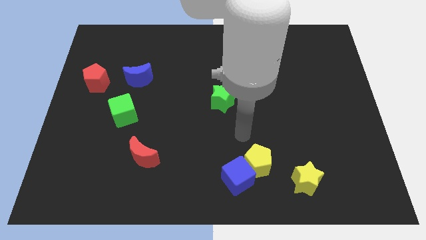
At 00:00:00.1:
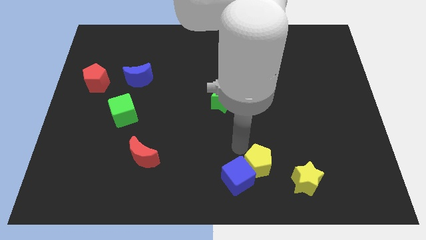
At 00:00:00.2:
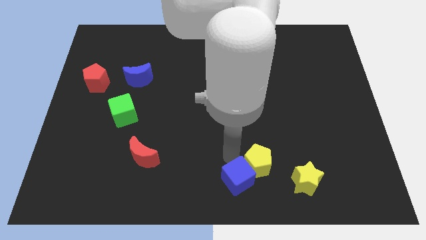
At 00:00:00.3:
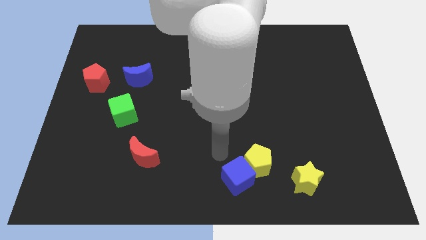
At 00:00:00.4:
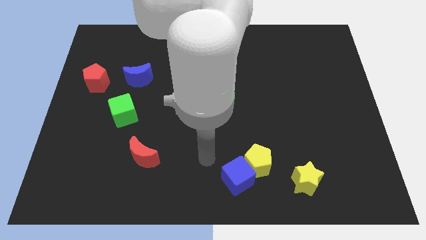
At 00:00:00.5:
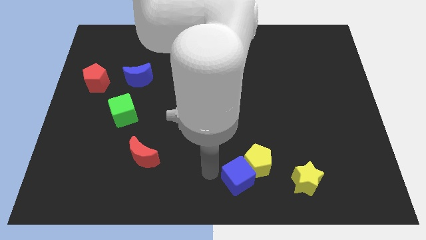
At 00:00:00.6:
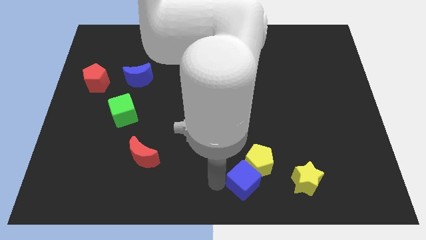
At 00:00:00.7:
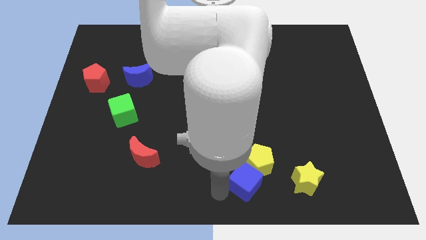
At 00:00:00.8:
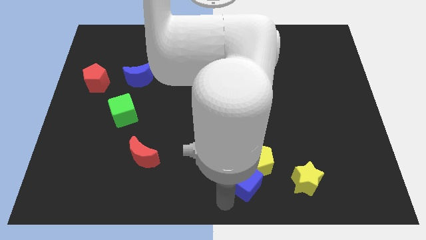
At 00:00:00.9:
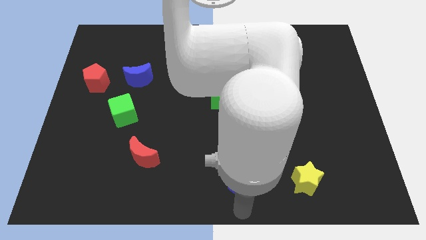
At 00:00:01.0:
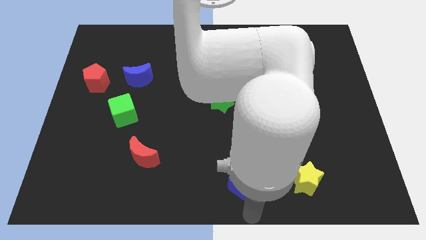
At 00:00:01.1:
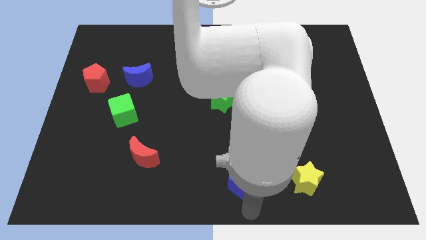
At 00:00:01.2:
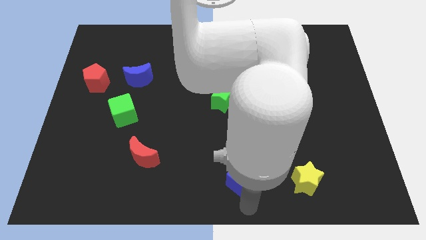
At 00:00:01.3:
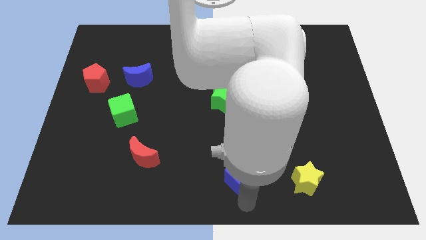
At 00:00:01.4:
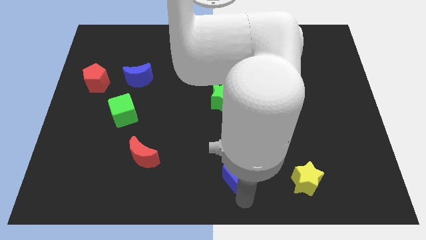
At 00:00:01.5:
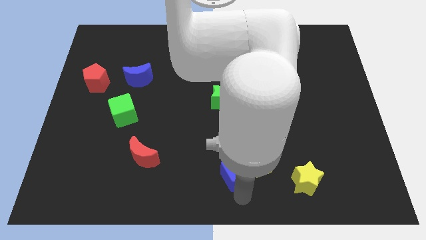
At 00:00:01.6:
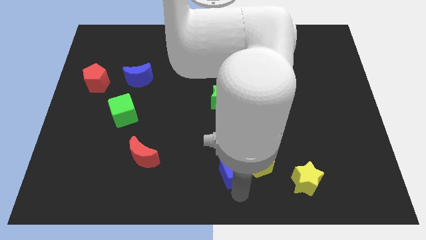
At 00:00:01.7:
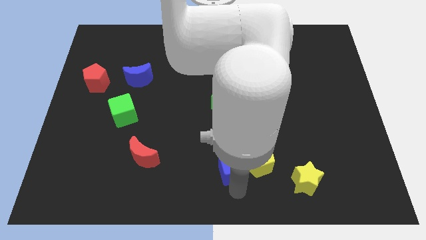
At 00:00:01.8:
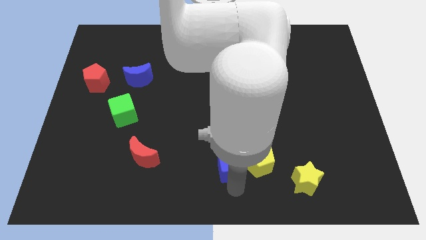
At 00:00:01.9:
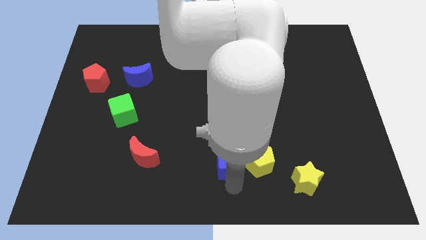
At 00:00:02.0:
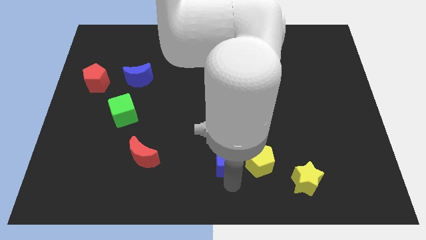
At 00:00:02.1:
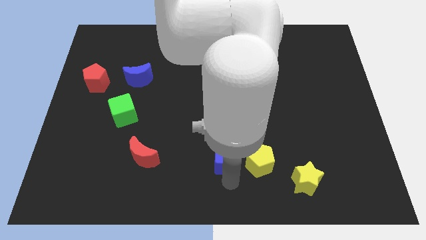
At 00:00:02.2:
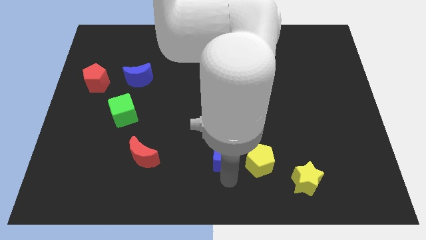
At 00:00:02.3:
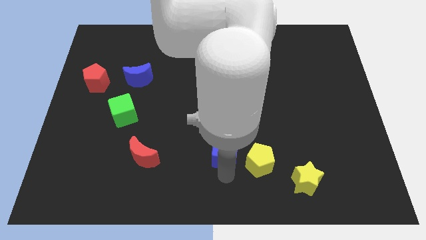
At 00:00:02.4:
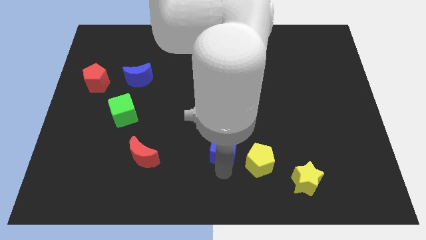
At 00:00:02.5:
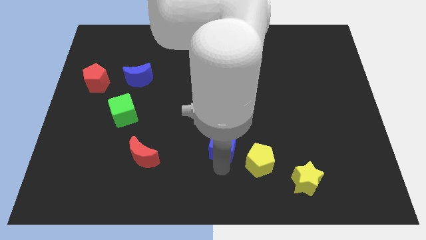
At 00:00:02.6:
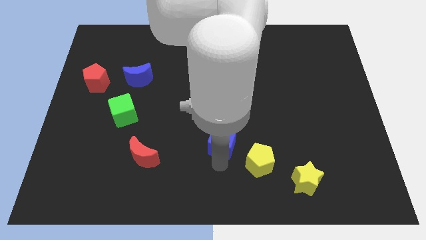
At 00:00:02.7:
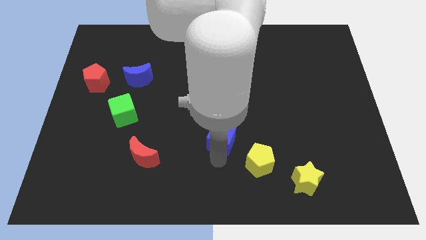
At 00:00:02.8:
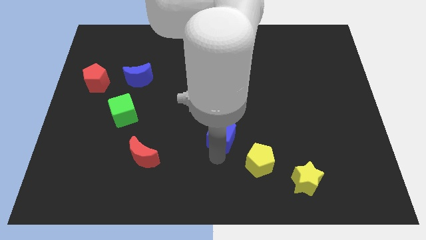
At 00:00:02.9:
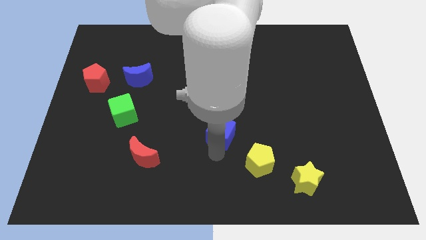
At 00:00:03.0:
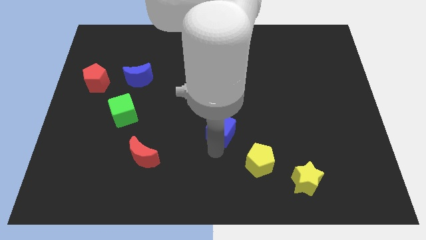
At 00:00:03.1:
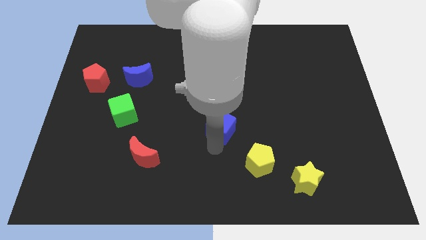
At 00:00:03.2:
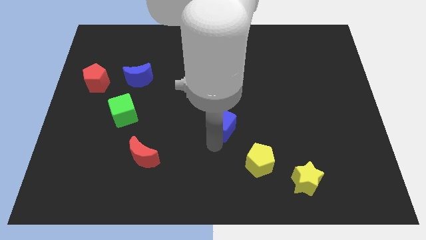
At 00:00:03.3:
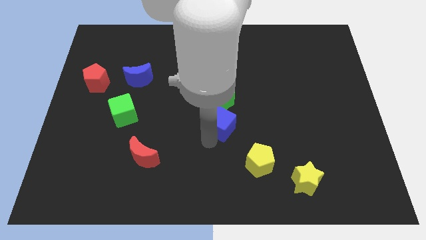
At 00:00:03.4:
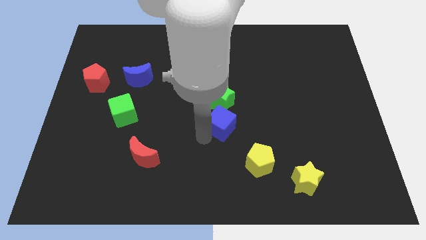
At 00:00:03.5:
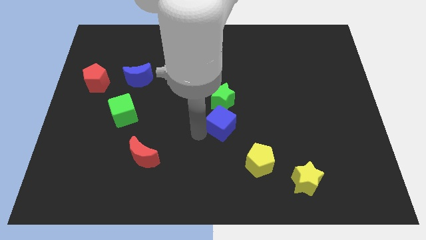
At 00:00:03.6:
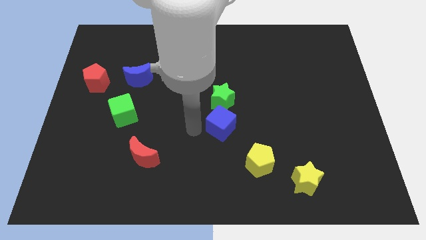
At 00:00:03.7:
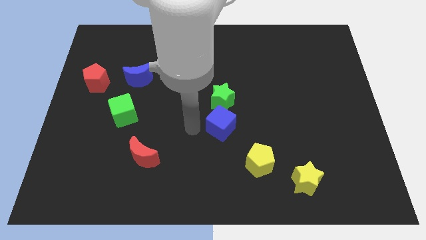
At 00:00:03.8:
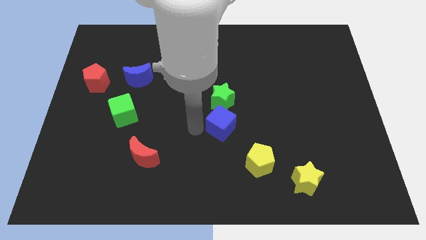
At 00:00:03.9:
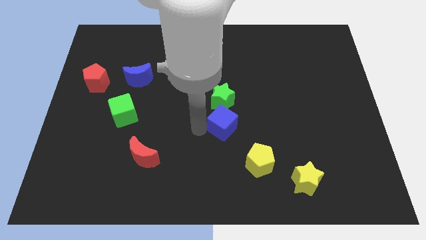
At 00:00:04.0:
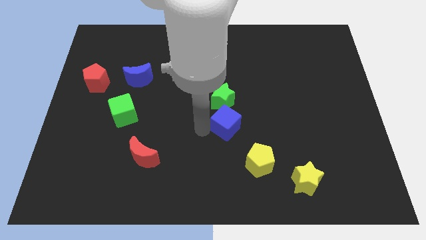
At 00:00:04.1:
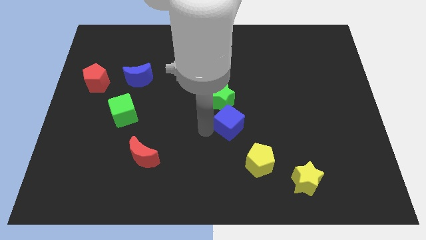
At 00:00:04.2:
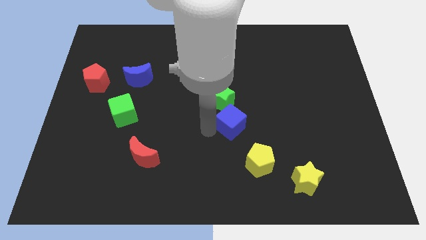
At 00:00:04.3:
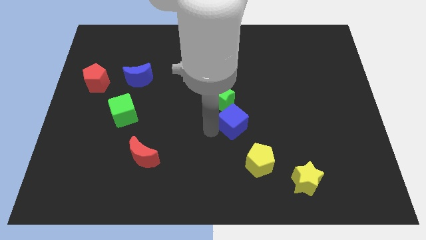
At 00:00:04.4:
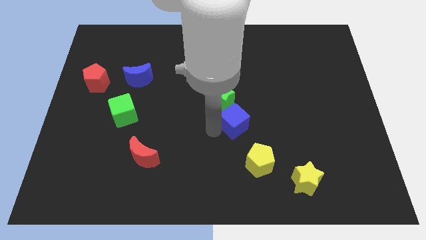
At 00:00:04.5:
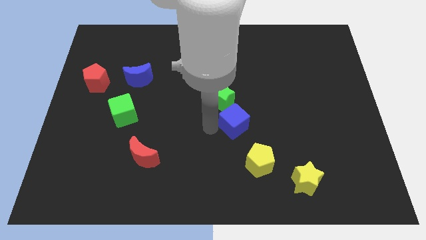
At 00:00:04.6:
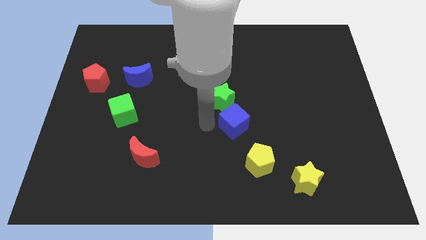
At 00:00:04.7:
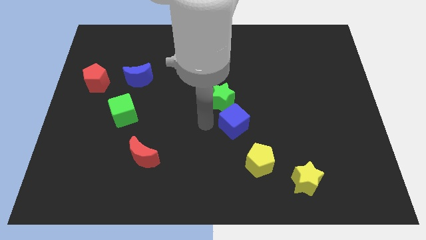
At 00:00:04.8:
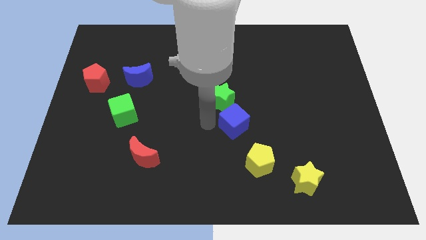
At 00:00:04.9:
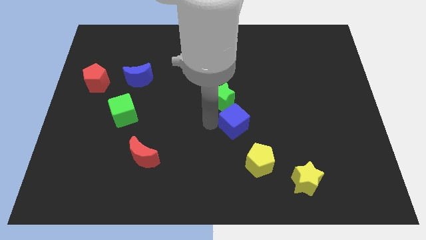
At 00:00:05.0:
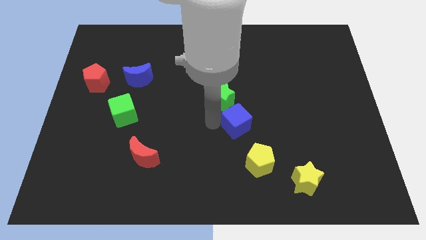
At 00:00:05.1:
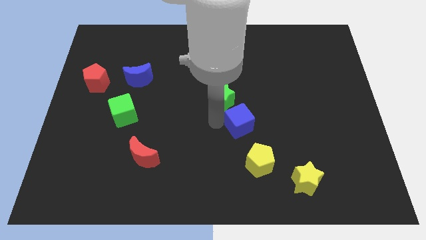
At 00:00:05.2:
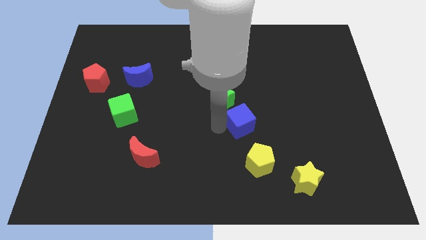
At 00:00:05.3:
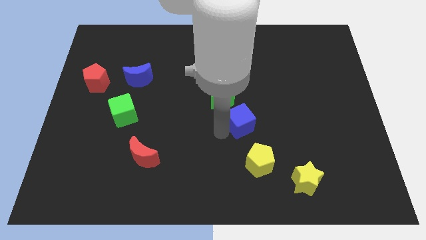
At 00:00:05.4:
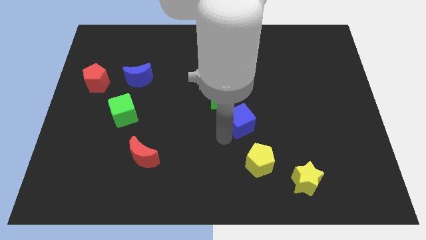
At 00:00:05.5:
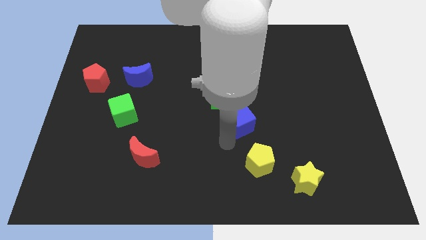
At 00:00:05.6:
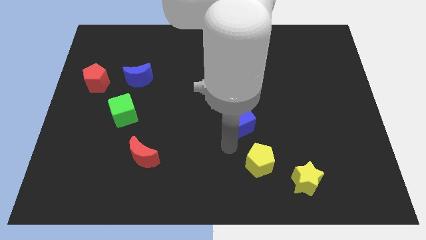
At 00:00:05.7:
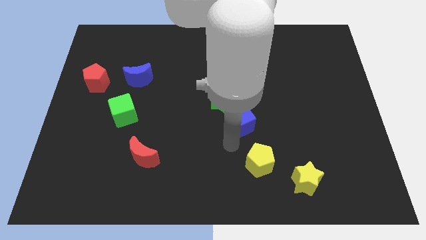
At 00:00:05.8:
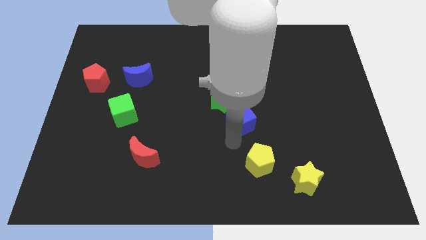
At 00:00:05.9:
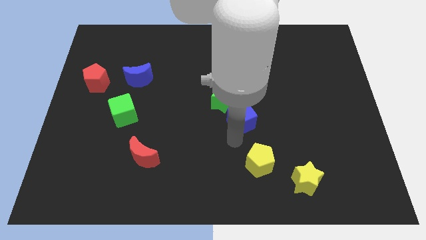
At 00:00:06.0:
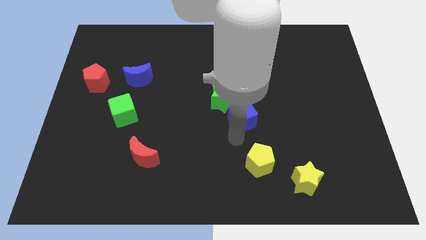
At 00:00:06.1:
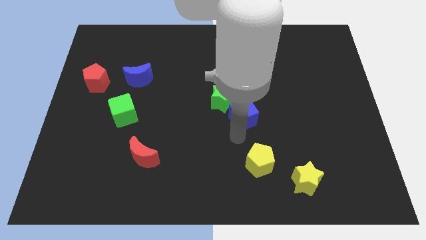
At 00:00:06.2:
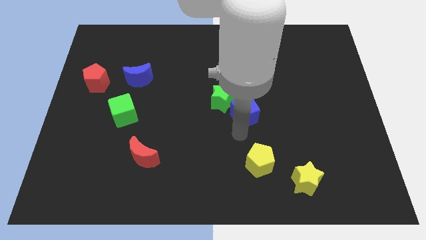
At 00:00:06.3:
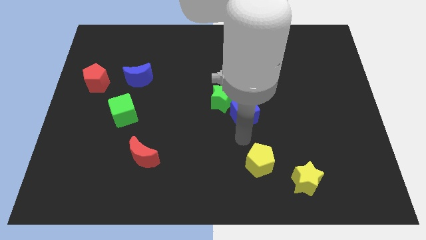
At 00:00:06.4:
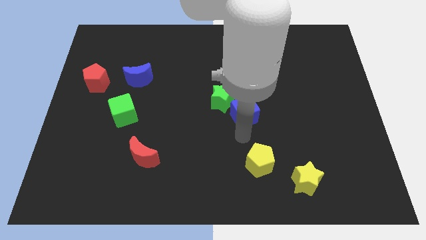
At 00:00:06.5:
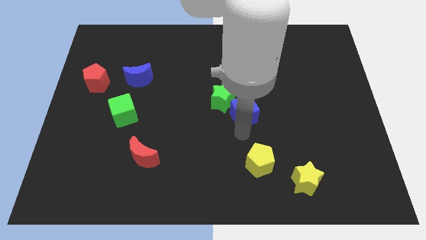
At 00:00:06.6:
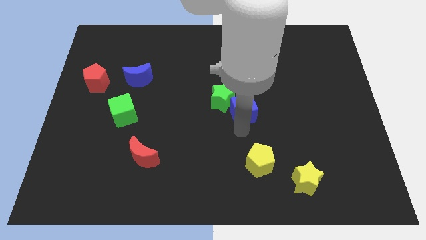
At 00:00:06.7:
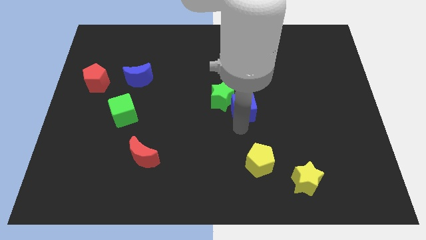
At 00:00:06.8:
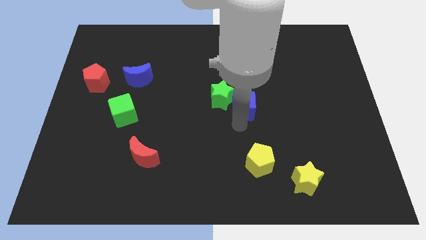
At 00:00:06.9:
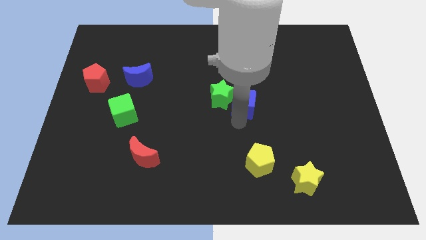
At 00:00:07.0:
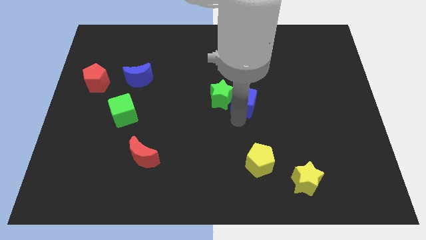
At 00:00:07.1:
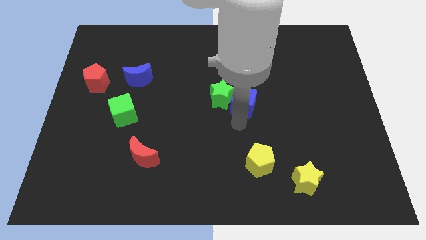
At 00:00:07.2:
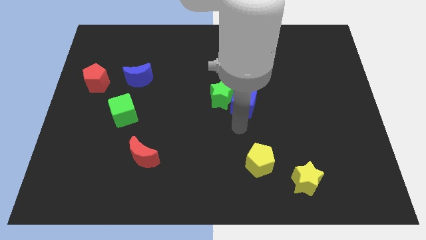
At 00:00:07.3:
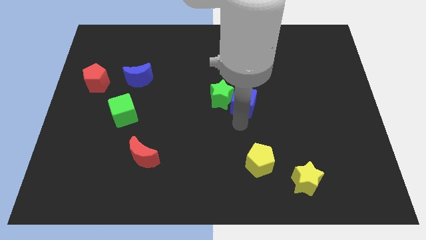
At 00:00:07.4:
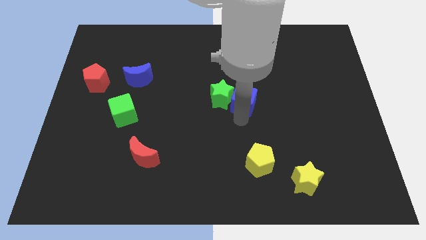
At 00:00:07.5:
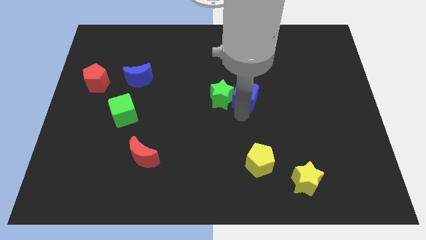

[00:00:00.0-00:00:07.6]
slide the blue cube up

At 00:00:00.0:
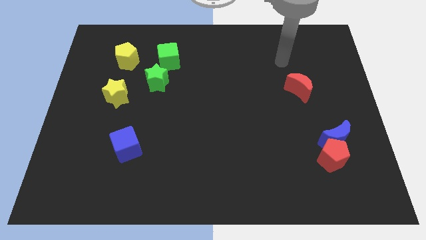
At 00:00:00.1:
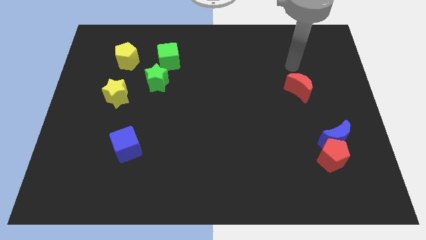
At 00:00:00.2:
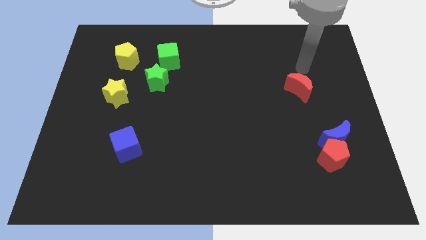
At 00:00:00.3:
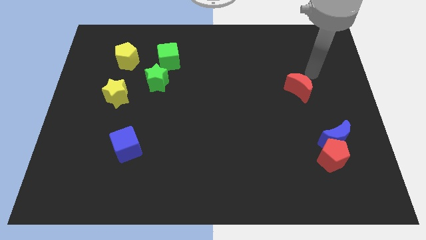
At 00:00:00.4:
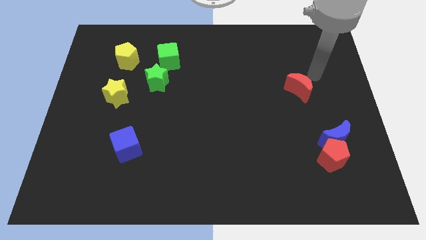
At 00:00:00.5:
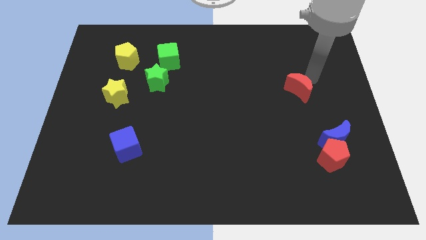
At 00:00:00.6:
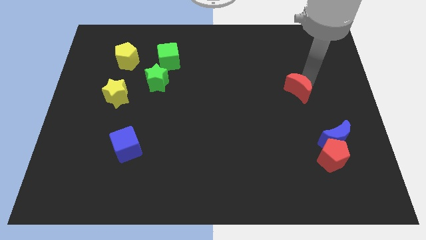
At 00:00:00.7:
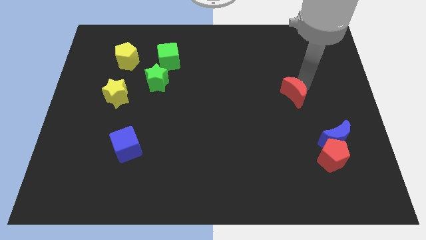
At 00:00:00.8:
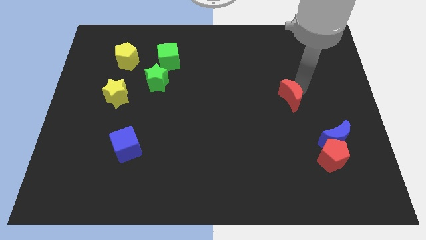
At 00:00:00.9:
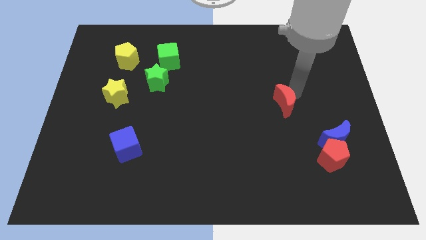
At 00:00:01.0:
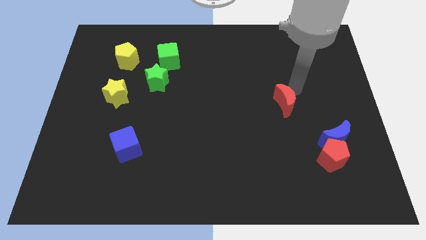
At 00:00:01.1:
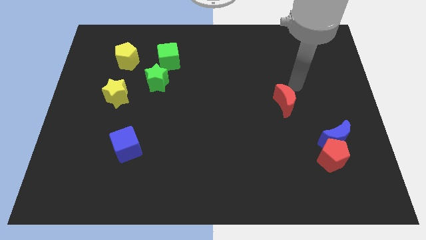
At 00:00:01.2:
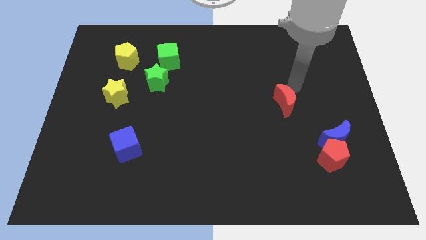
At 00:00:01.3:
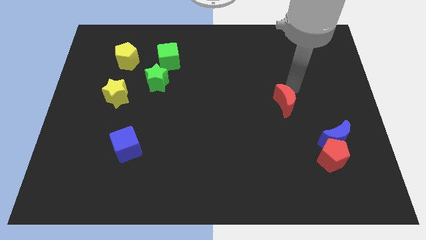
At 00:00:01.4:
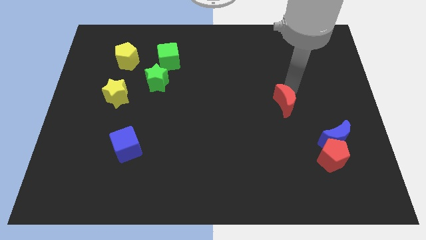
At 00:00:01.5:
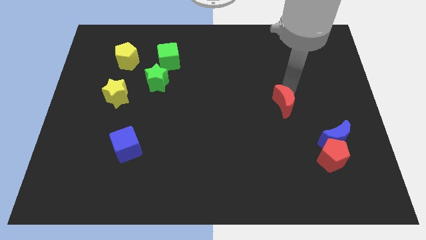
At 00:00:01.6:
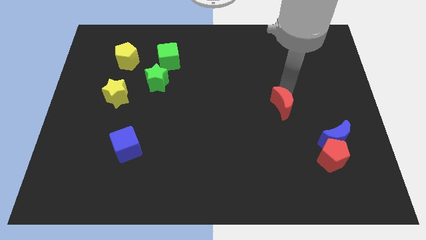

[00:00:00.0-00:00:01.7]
move the red moon downwards and then left a bit
